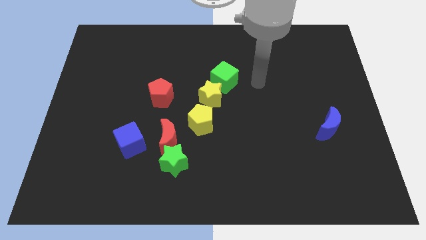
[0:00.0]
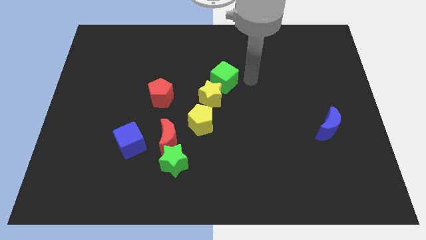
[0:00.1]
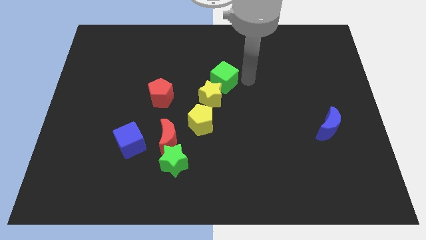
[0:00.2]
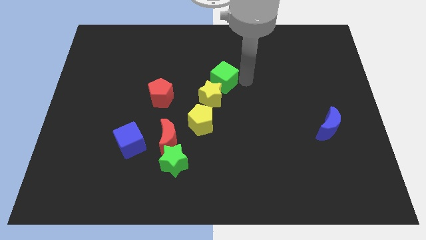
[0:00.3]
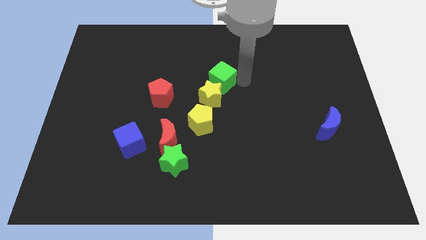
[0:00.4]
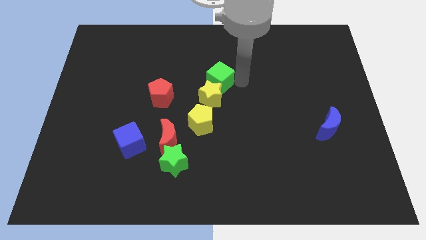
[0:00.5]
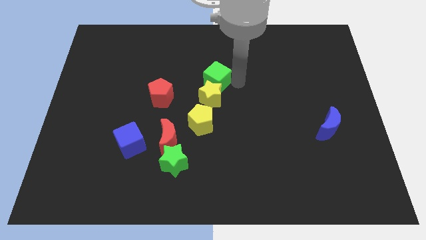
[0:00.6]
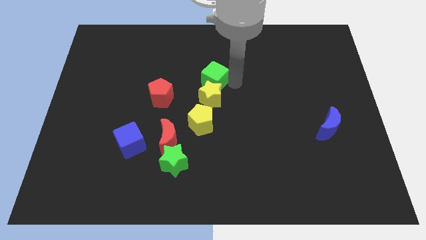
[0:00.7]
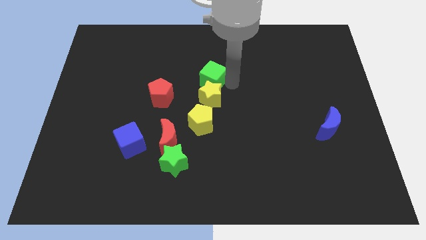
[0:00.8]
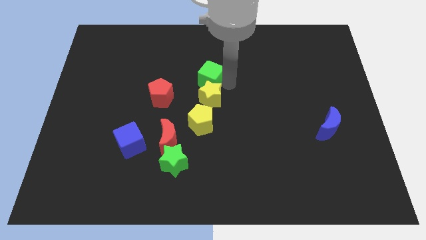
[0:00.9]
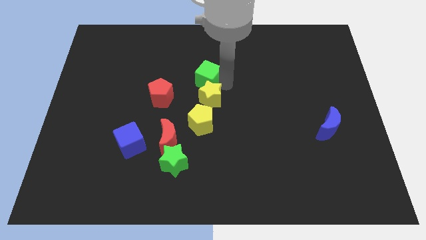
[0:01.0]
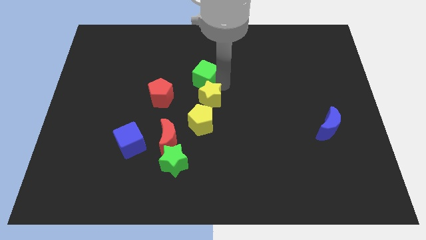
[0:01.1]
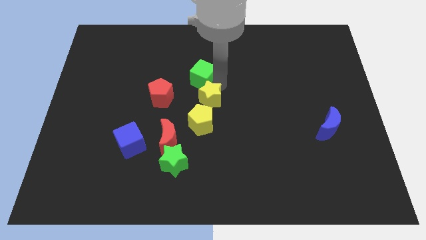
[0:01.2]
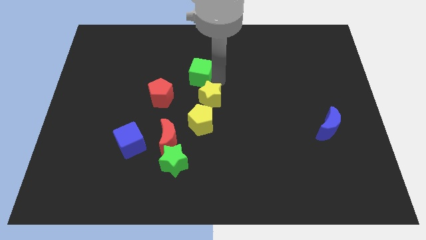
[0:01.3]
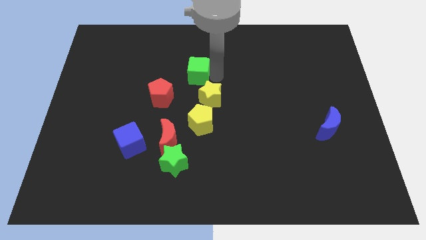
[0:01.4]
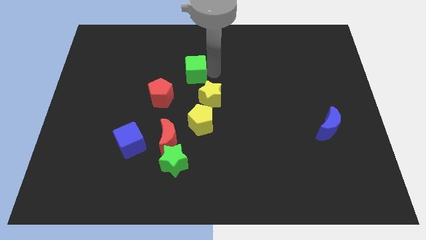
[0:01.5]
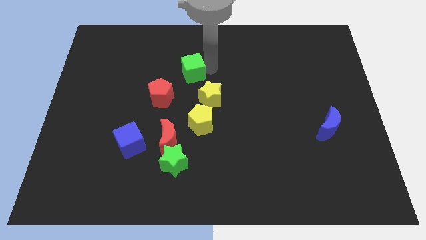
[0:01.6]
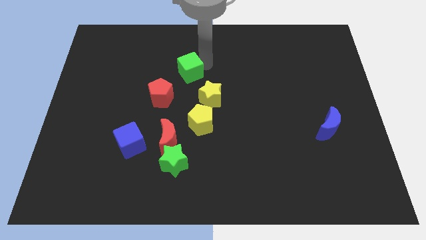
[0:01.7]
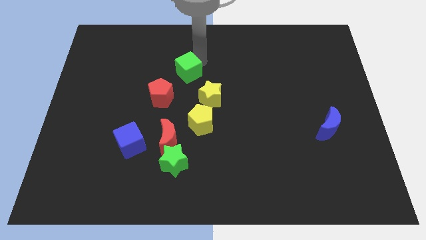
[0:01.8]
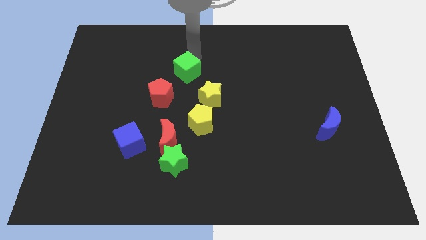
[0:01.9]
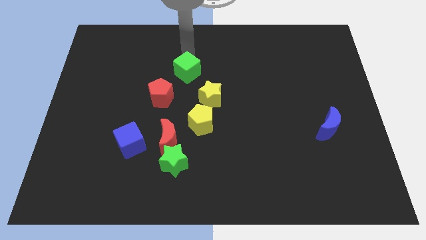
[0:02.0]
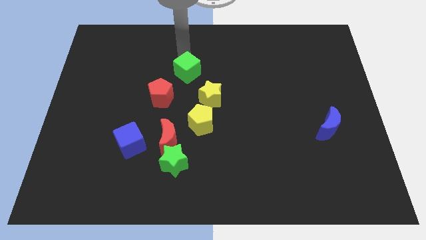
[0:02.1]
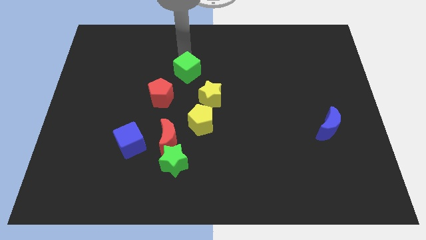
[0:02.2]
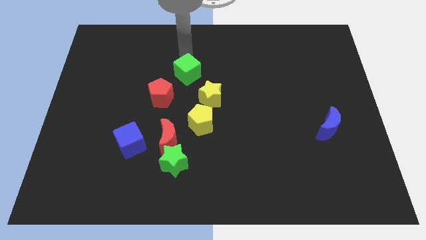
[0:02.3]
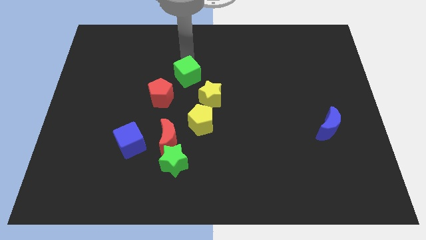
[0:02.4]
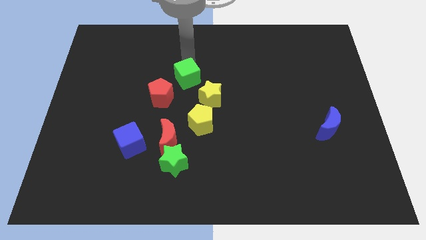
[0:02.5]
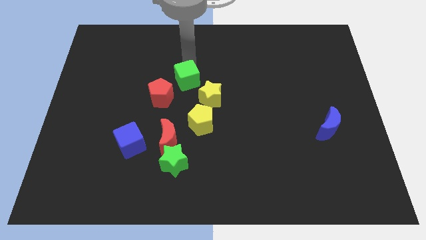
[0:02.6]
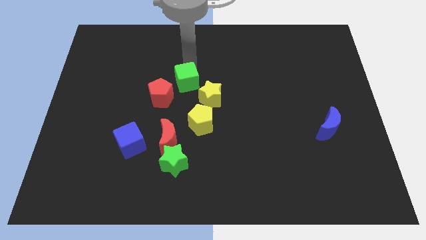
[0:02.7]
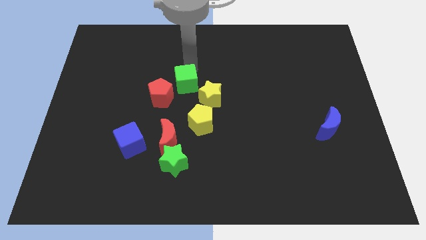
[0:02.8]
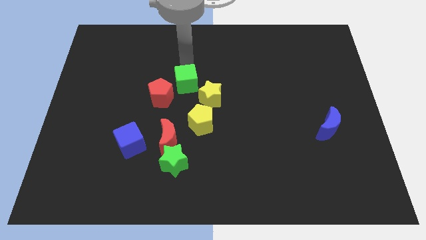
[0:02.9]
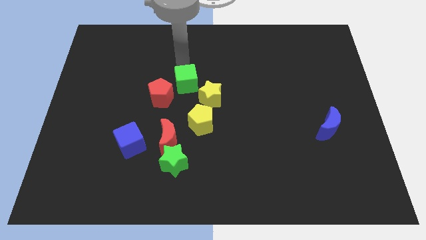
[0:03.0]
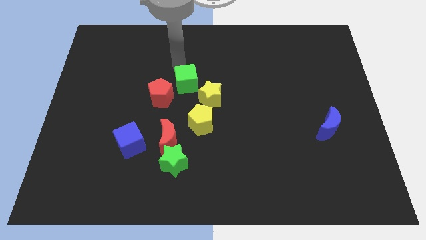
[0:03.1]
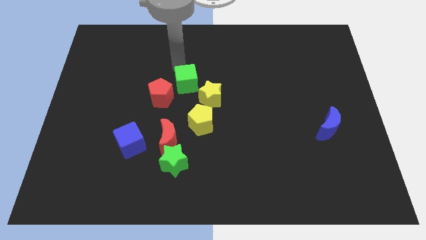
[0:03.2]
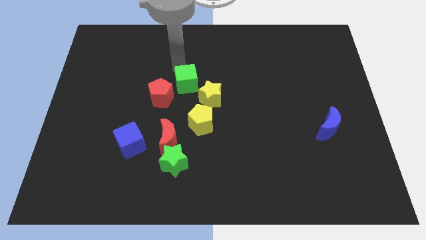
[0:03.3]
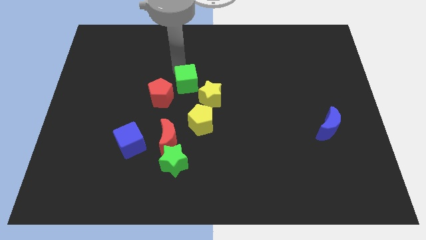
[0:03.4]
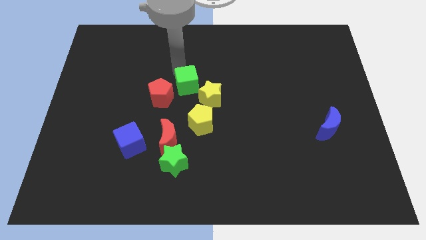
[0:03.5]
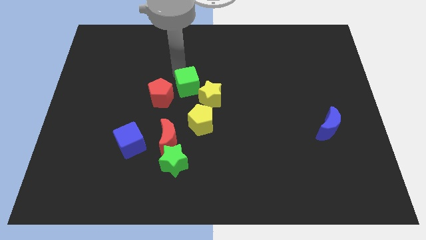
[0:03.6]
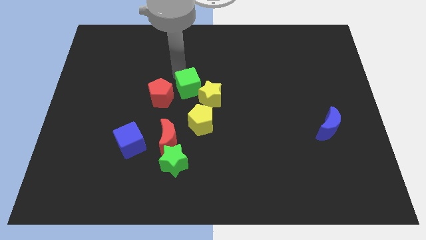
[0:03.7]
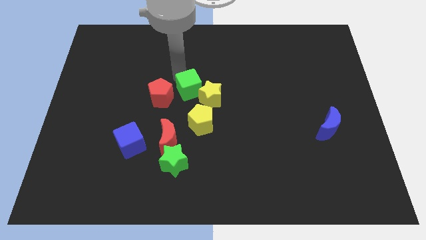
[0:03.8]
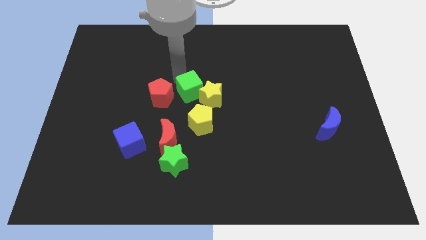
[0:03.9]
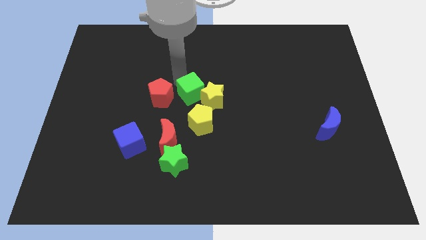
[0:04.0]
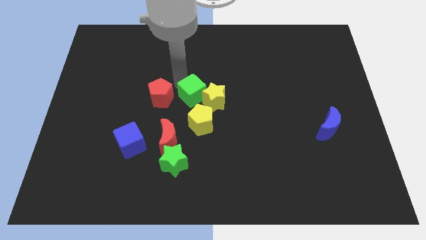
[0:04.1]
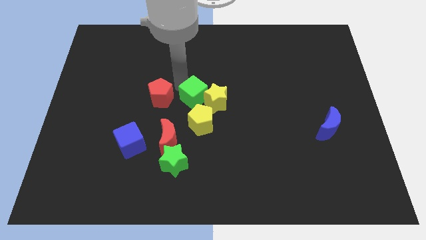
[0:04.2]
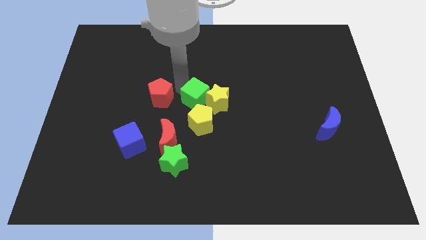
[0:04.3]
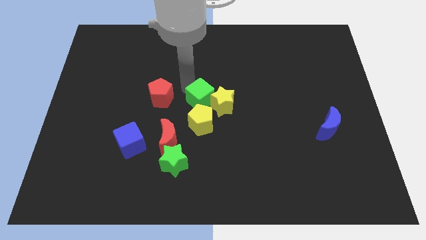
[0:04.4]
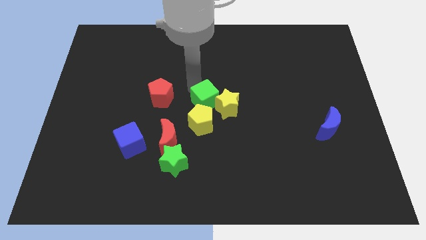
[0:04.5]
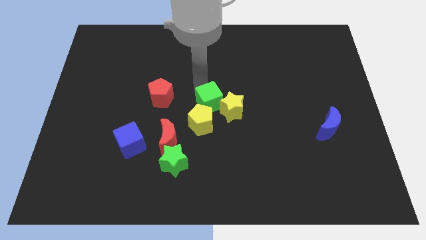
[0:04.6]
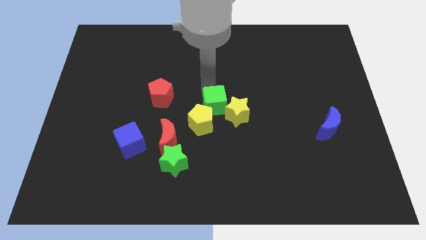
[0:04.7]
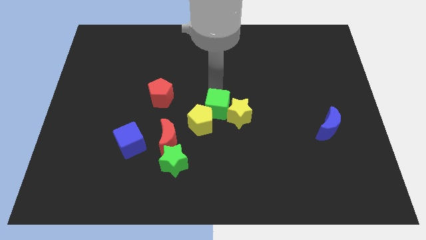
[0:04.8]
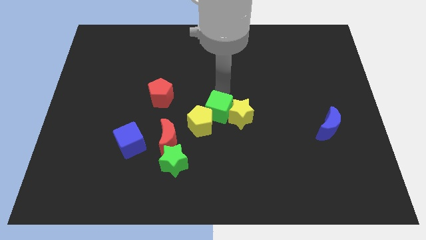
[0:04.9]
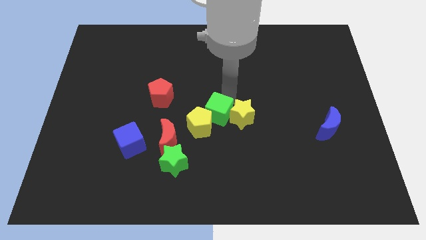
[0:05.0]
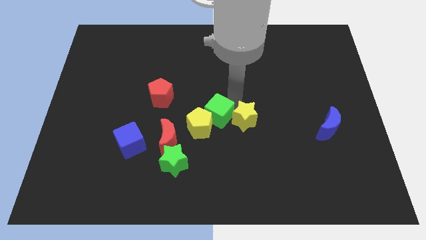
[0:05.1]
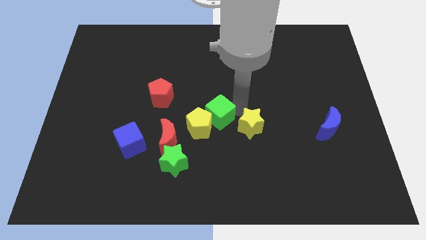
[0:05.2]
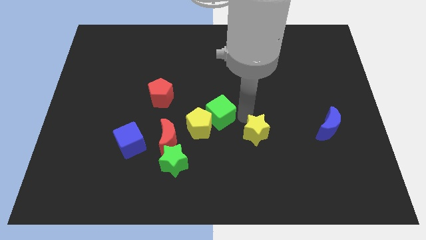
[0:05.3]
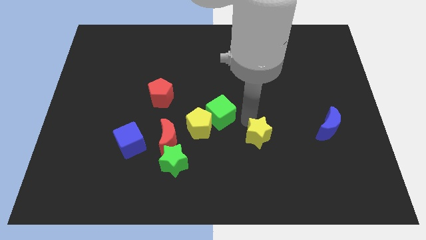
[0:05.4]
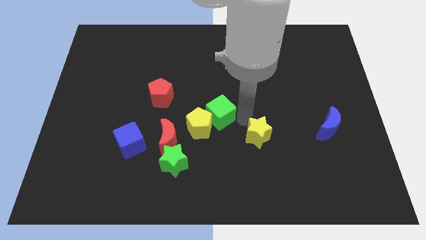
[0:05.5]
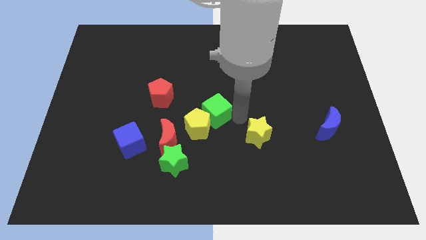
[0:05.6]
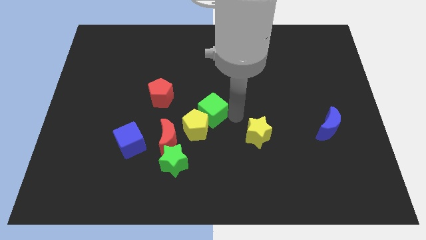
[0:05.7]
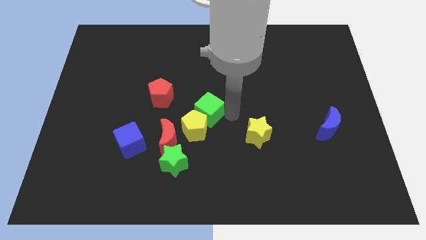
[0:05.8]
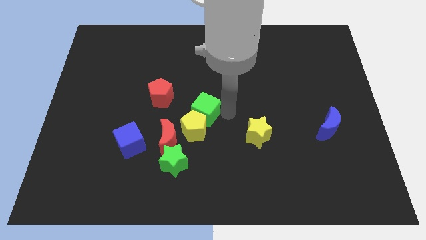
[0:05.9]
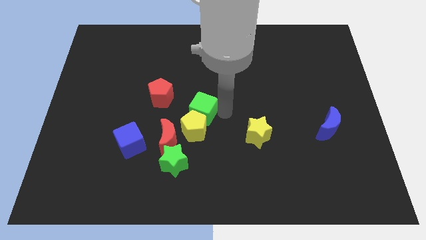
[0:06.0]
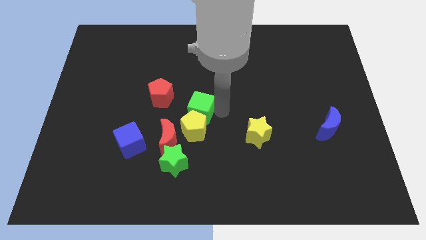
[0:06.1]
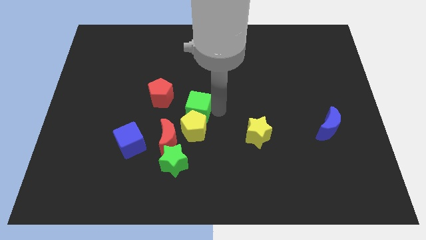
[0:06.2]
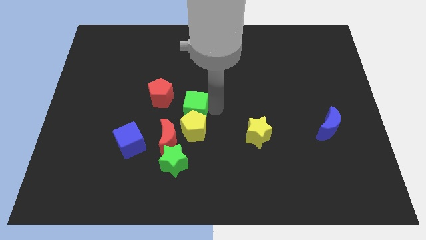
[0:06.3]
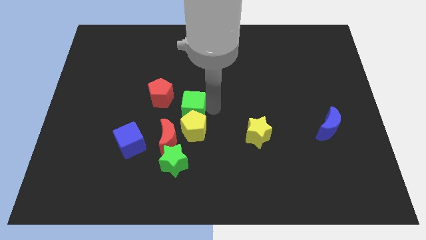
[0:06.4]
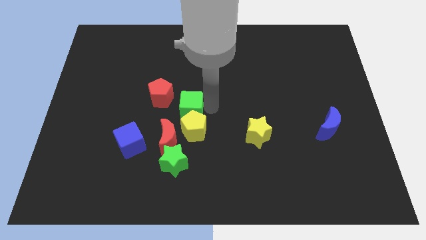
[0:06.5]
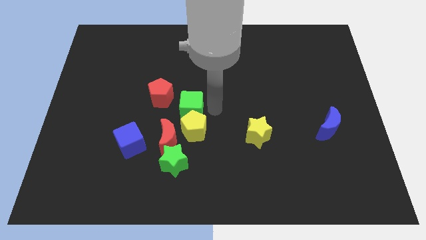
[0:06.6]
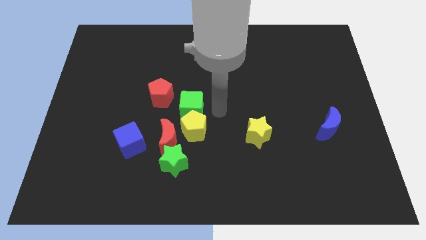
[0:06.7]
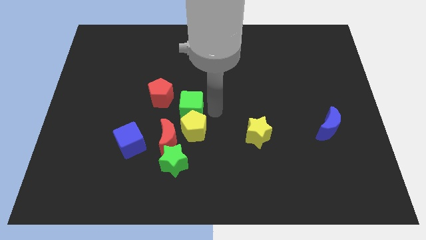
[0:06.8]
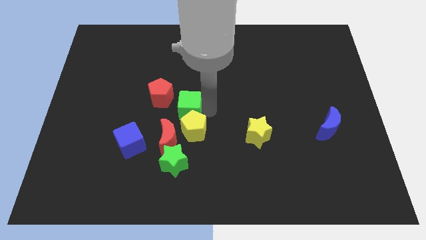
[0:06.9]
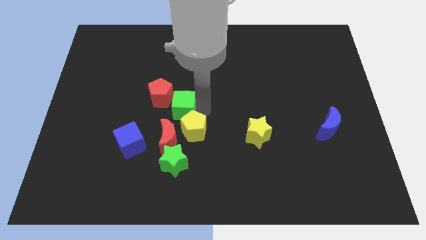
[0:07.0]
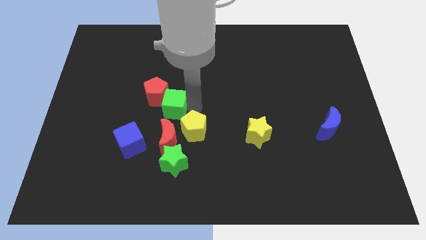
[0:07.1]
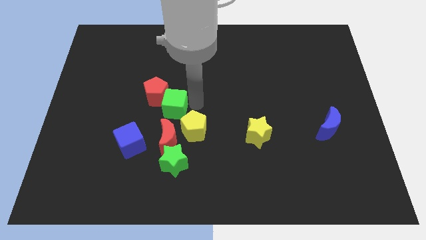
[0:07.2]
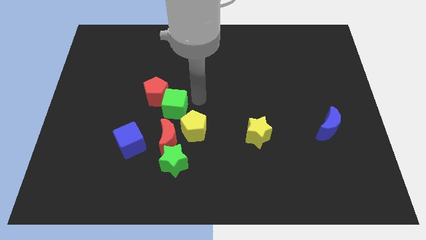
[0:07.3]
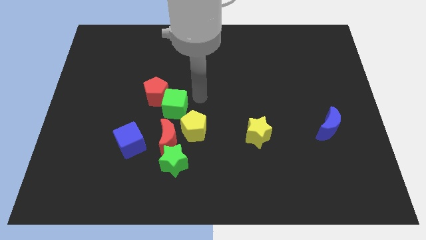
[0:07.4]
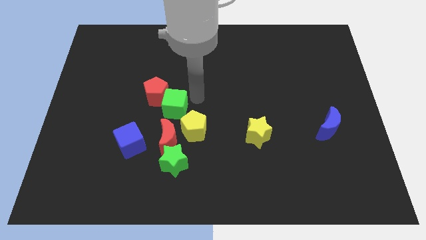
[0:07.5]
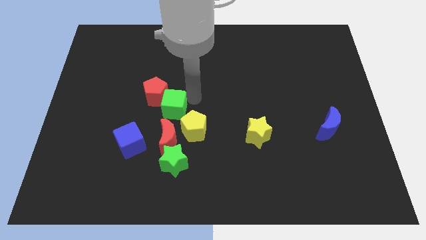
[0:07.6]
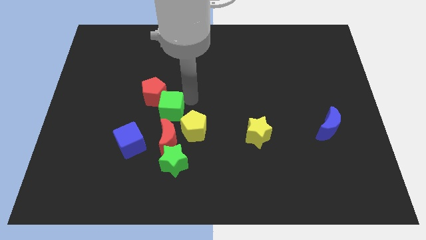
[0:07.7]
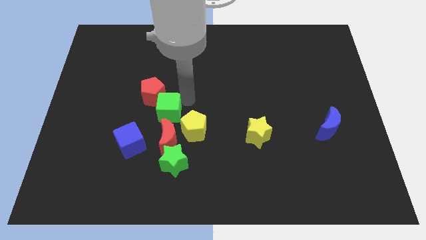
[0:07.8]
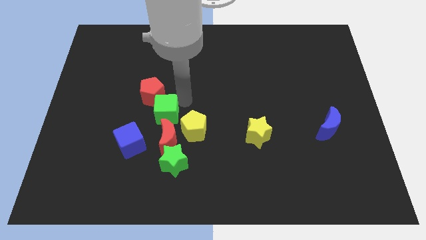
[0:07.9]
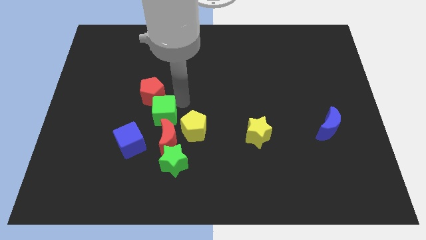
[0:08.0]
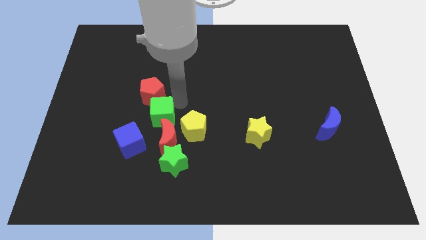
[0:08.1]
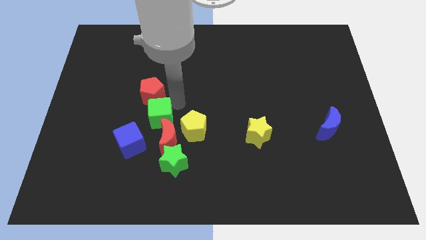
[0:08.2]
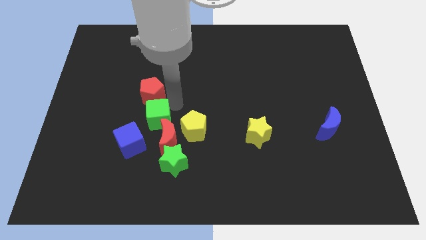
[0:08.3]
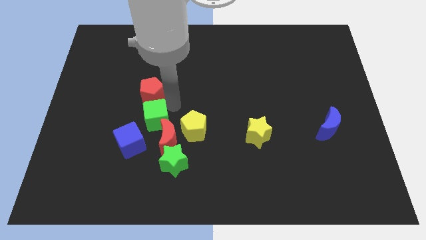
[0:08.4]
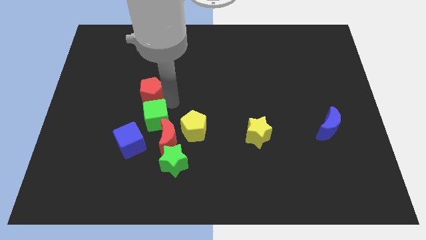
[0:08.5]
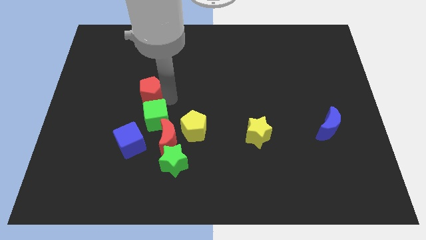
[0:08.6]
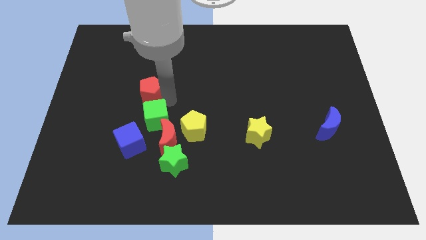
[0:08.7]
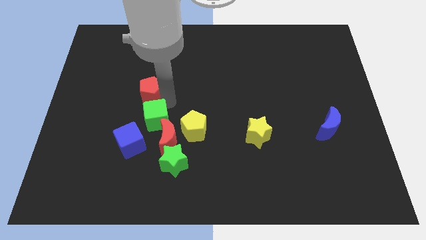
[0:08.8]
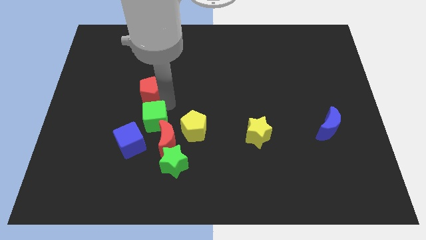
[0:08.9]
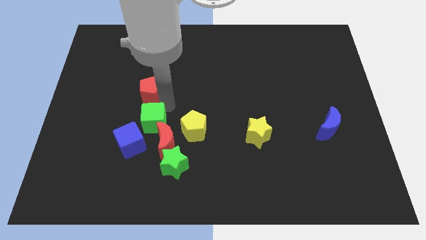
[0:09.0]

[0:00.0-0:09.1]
push the green cube downwards and to the left
